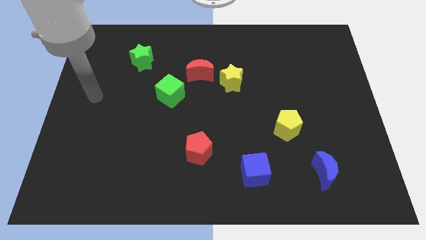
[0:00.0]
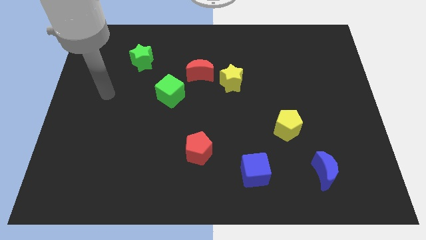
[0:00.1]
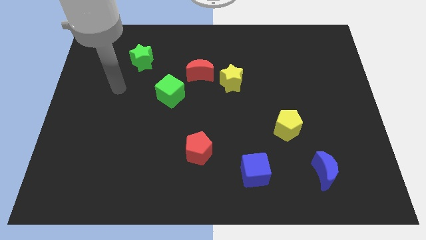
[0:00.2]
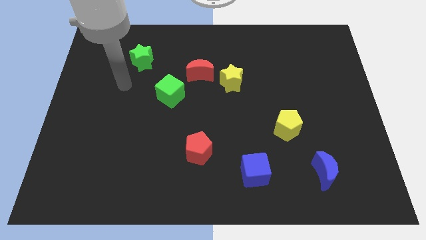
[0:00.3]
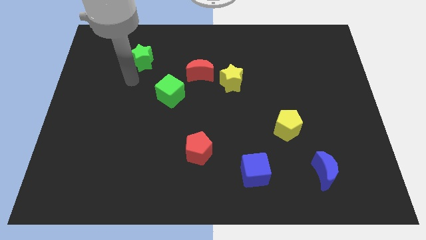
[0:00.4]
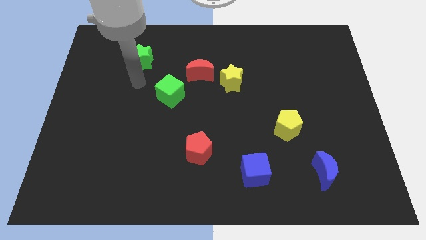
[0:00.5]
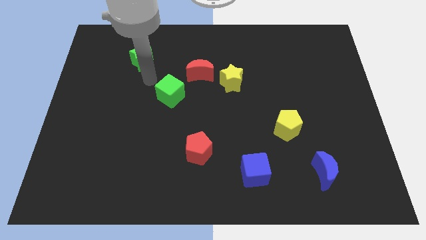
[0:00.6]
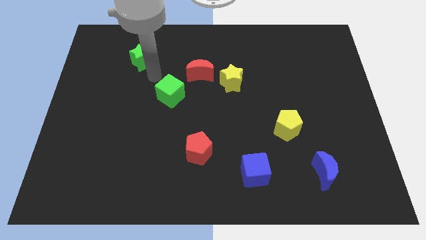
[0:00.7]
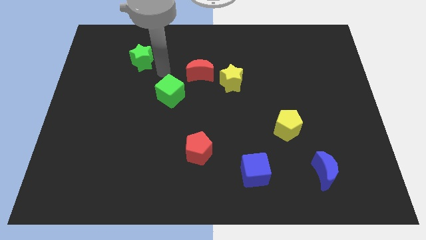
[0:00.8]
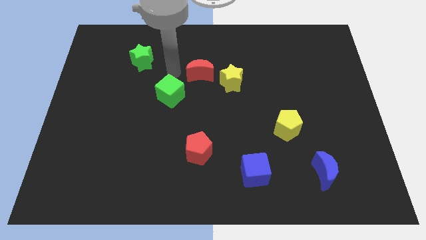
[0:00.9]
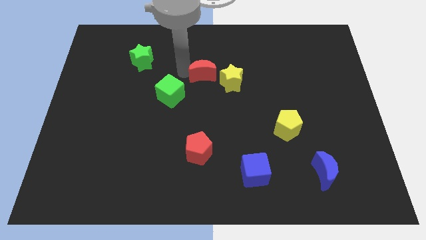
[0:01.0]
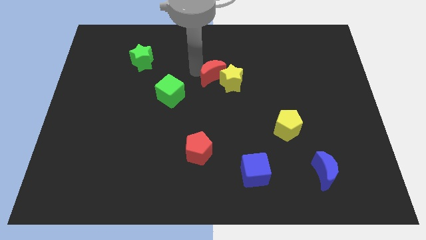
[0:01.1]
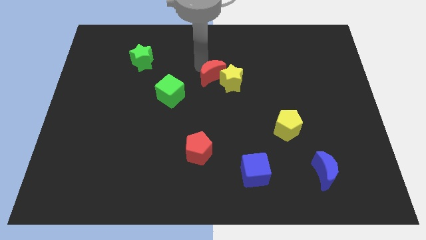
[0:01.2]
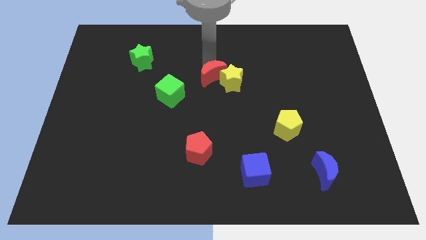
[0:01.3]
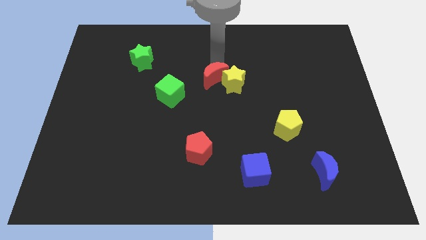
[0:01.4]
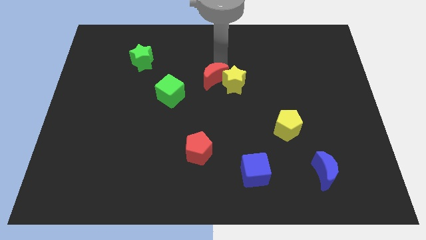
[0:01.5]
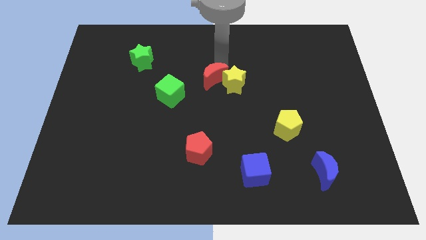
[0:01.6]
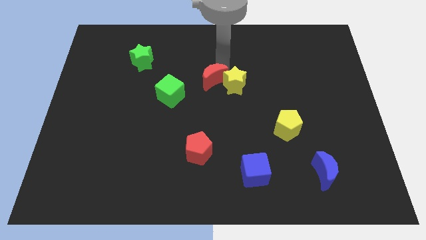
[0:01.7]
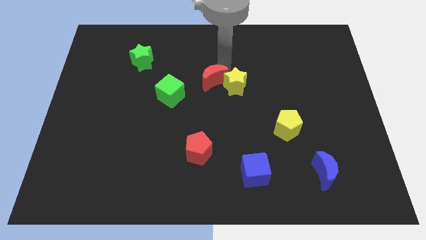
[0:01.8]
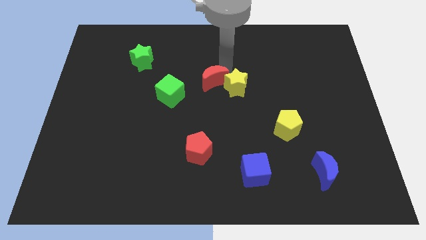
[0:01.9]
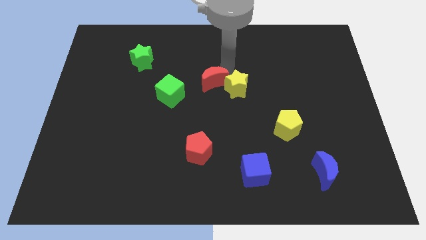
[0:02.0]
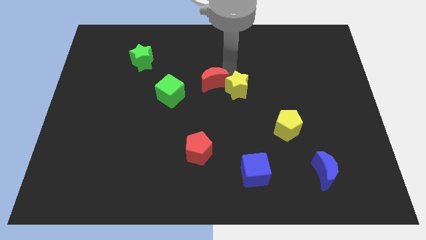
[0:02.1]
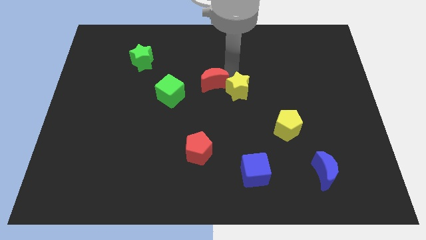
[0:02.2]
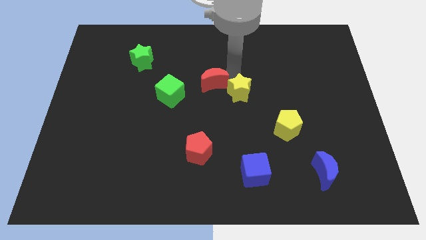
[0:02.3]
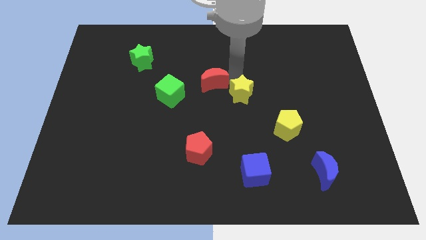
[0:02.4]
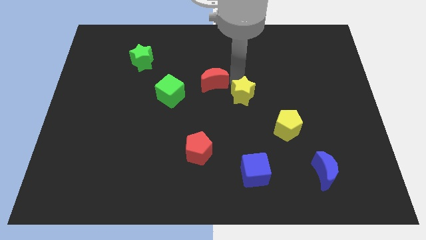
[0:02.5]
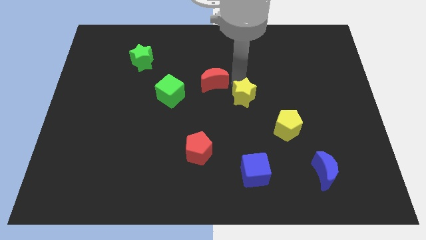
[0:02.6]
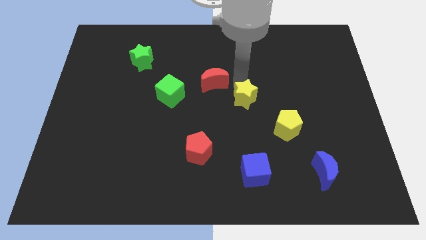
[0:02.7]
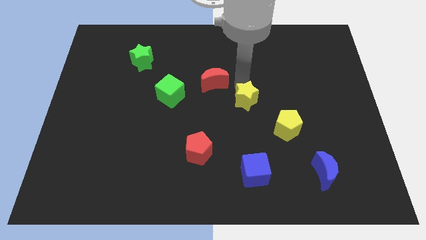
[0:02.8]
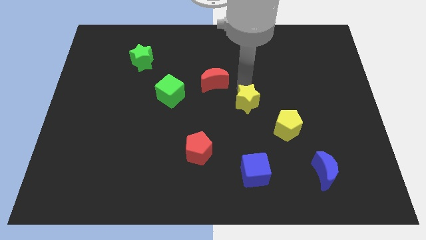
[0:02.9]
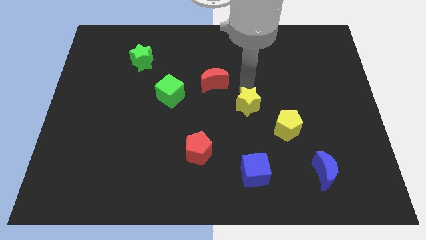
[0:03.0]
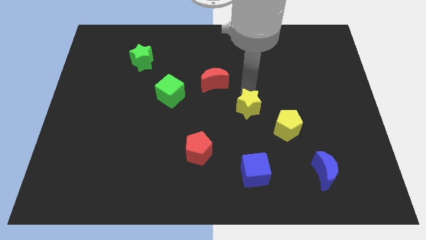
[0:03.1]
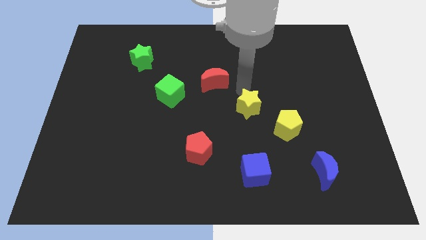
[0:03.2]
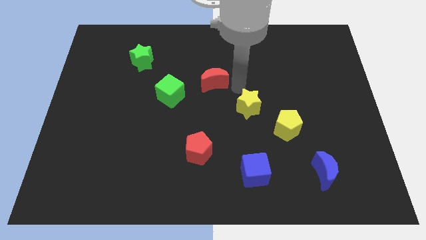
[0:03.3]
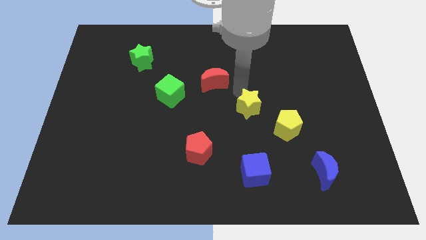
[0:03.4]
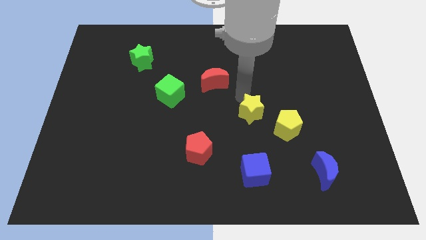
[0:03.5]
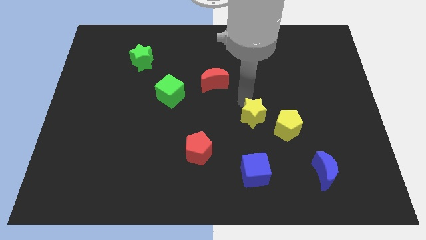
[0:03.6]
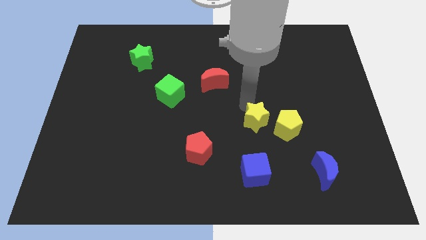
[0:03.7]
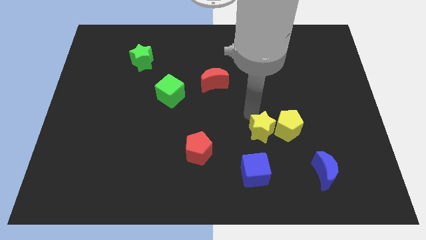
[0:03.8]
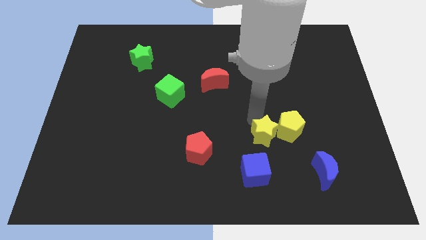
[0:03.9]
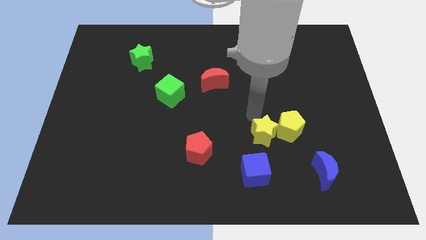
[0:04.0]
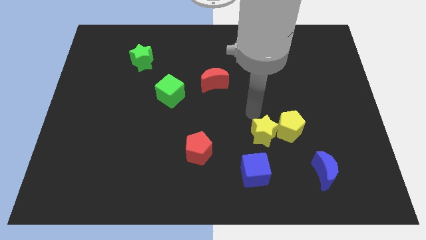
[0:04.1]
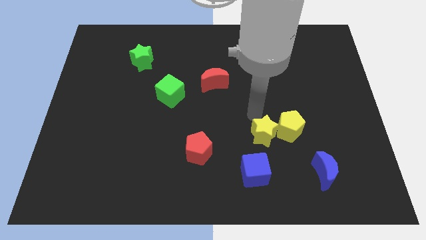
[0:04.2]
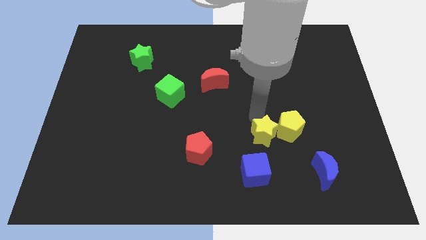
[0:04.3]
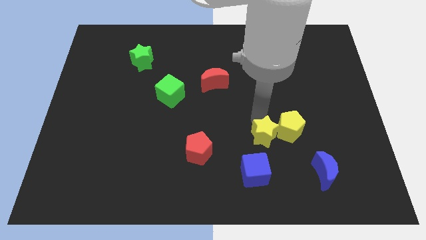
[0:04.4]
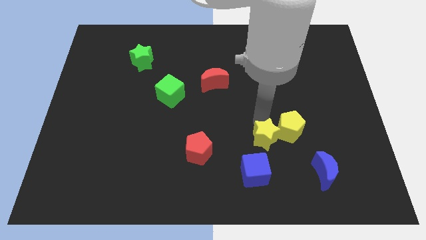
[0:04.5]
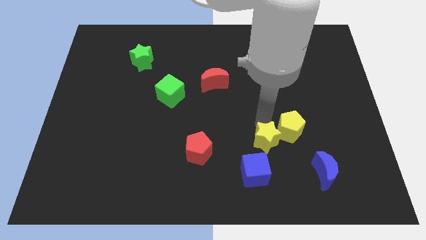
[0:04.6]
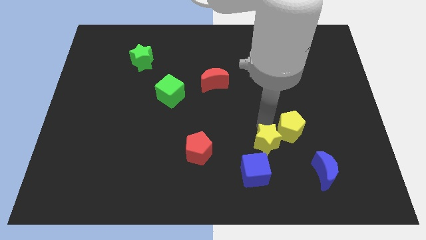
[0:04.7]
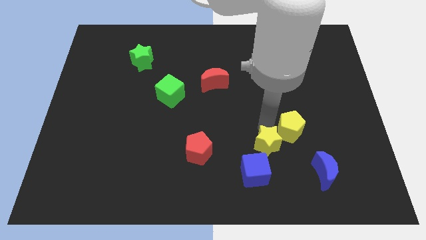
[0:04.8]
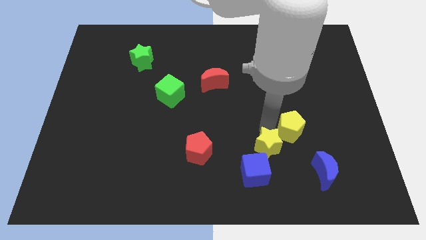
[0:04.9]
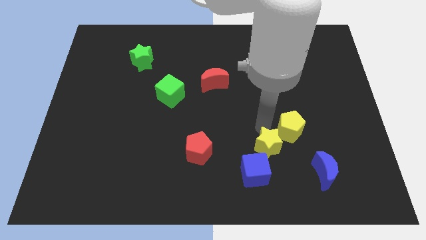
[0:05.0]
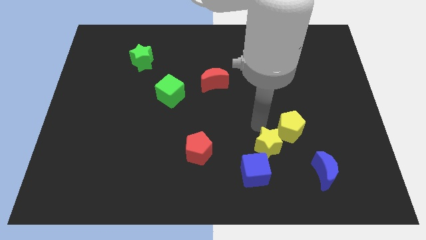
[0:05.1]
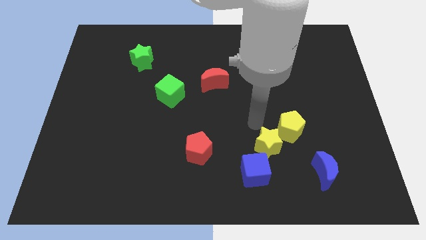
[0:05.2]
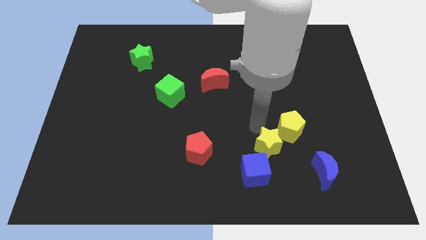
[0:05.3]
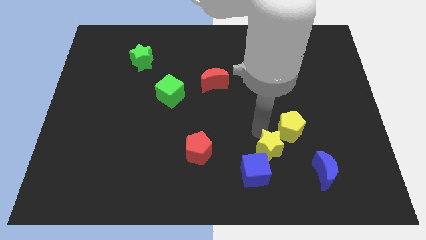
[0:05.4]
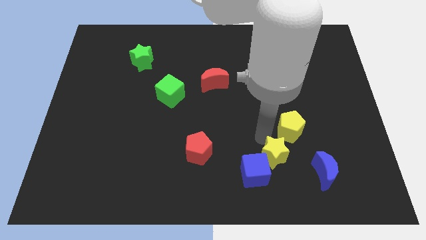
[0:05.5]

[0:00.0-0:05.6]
move the yellow star to the left of the blue moon

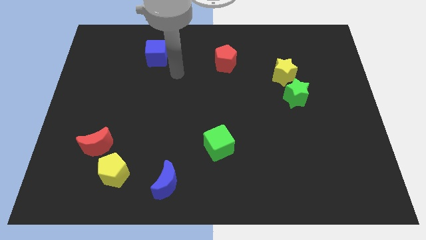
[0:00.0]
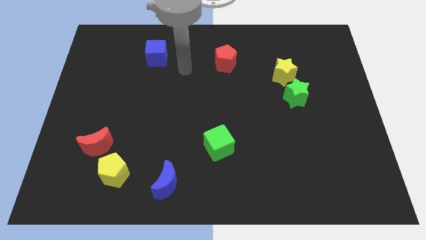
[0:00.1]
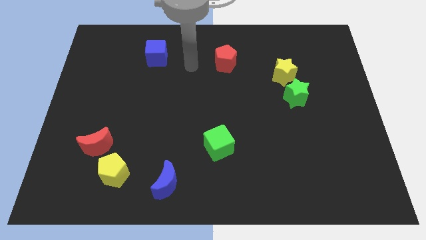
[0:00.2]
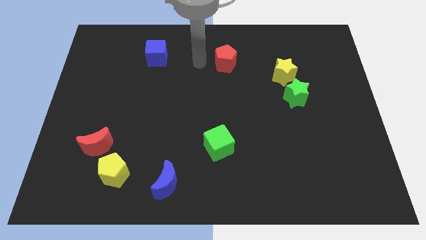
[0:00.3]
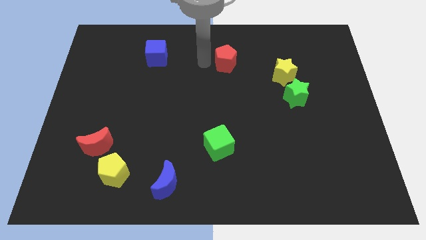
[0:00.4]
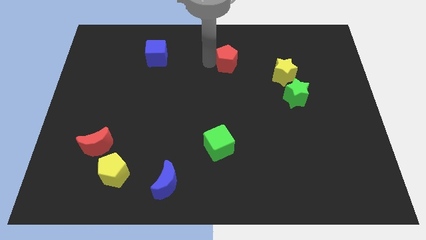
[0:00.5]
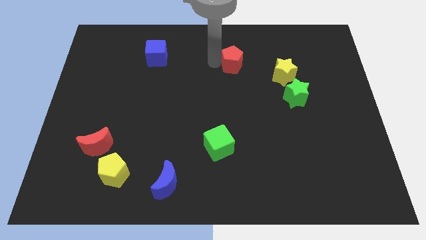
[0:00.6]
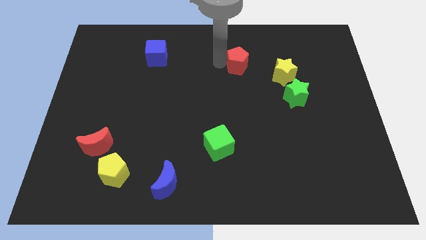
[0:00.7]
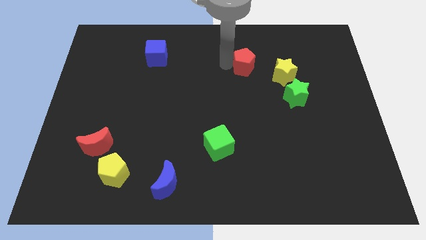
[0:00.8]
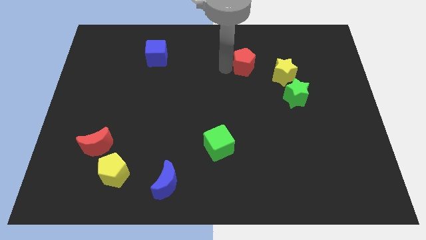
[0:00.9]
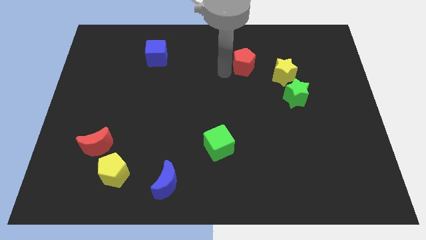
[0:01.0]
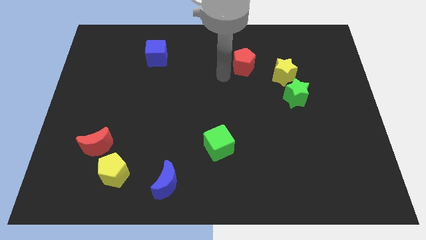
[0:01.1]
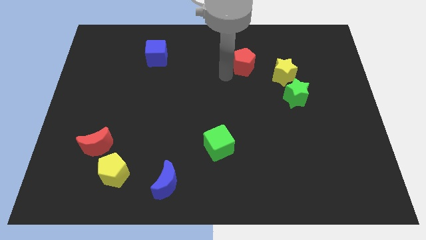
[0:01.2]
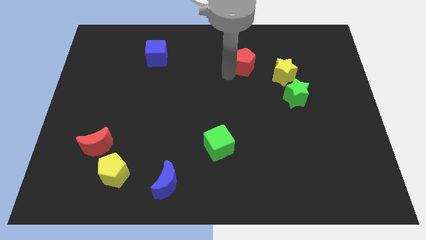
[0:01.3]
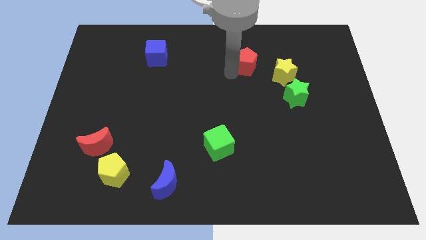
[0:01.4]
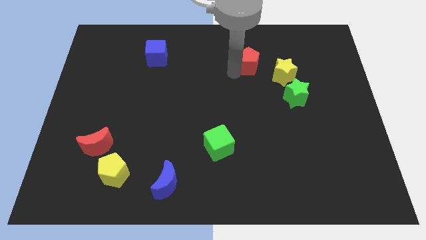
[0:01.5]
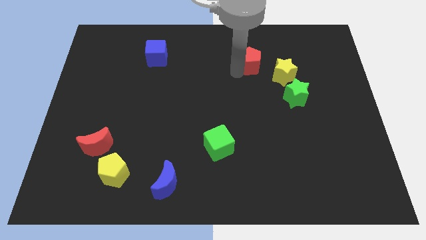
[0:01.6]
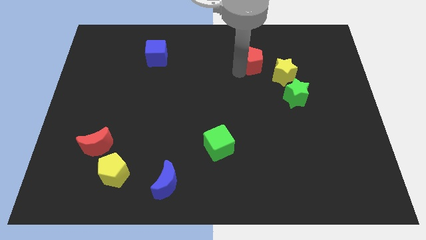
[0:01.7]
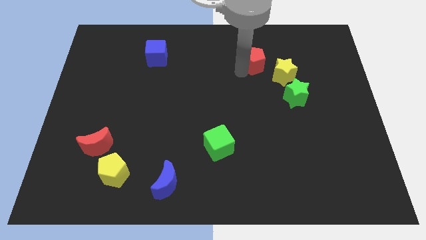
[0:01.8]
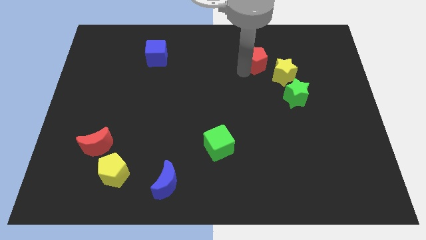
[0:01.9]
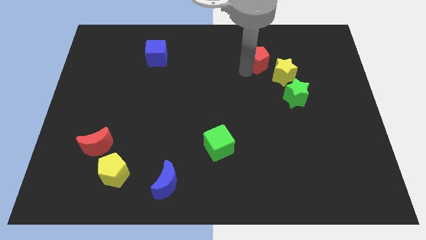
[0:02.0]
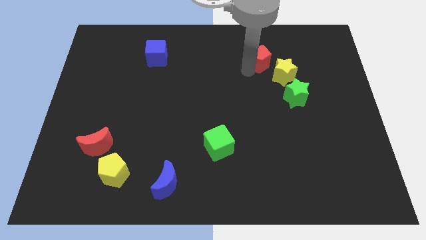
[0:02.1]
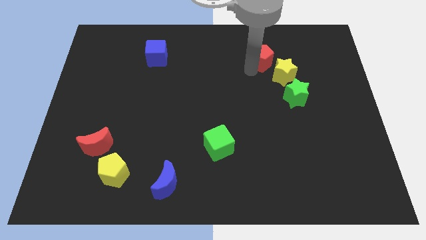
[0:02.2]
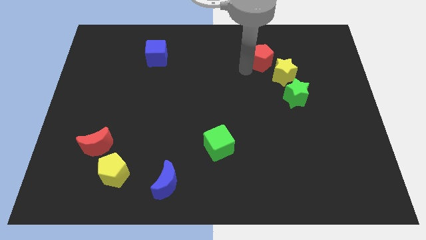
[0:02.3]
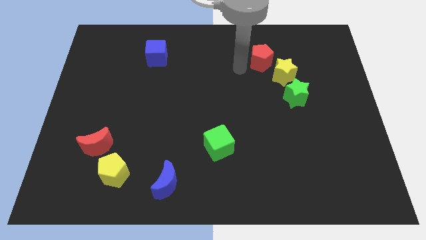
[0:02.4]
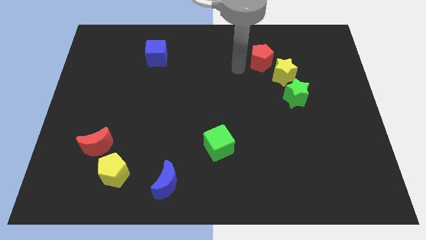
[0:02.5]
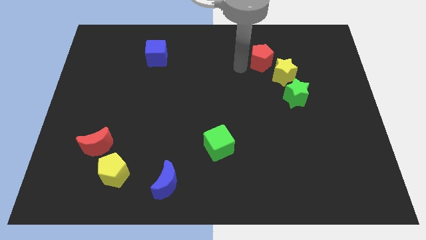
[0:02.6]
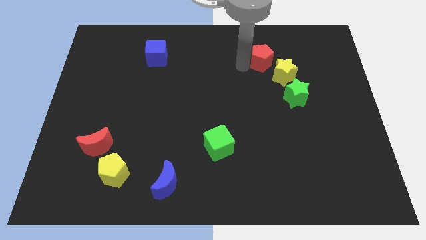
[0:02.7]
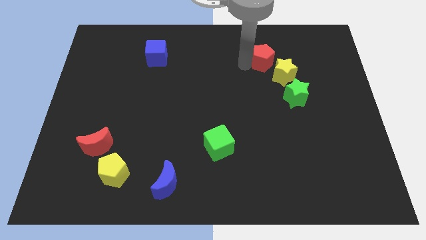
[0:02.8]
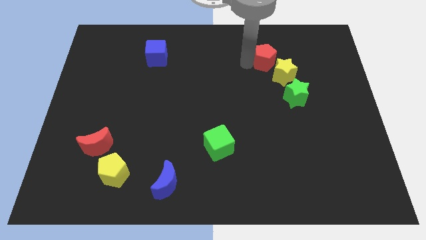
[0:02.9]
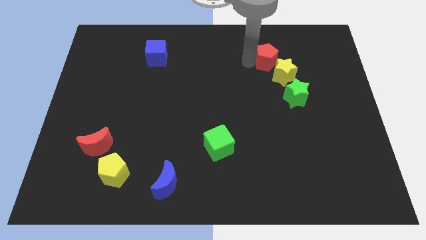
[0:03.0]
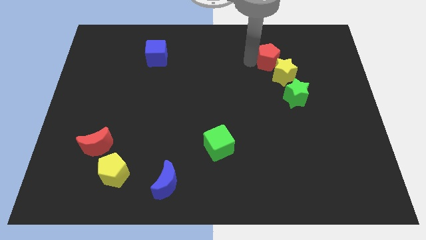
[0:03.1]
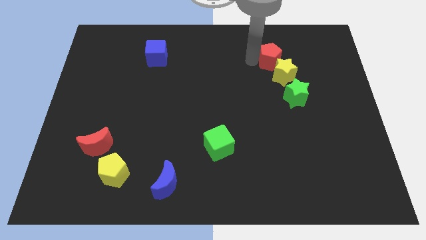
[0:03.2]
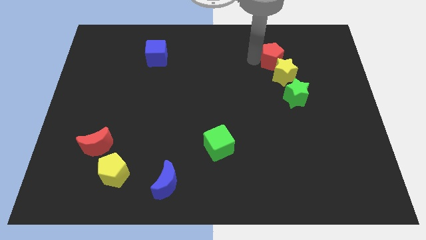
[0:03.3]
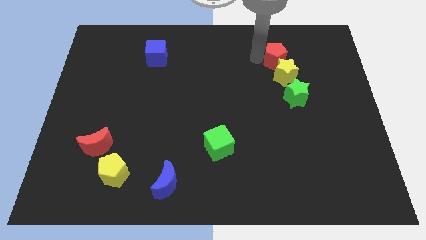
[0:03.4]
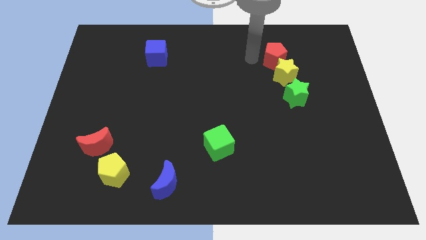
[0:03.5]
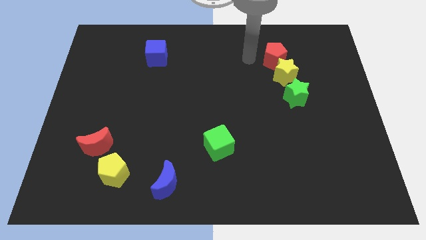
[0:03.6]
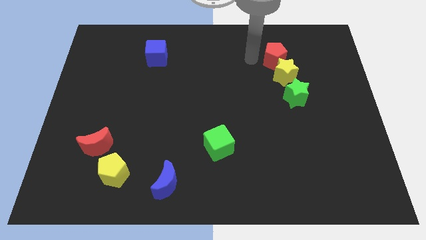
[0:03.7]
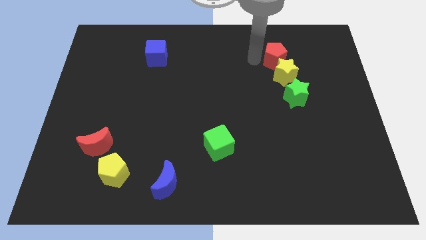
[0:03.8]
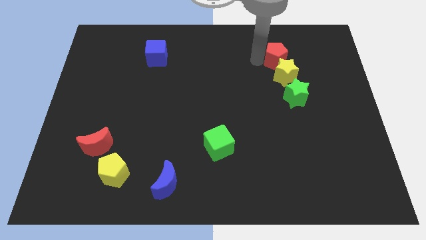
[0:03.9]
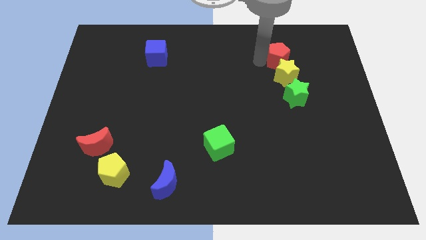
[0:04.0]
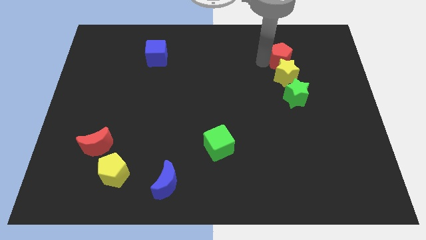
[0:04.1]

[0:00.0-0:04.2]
slide the red pentagon diagonally up and to the right of the yellow star
